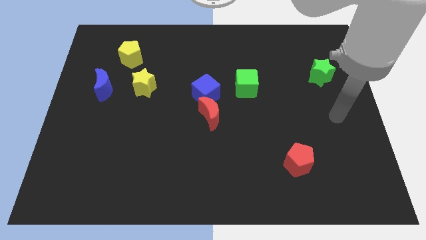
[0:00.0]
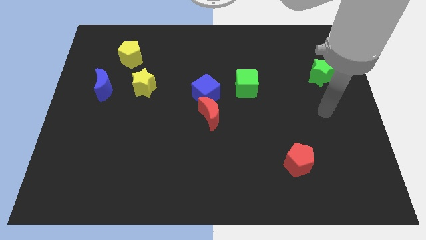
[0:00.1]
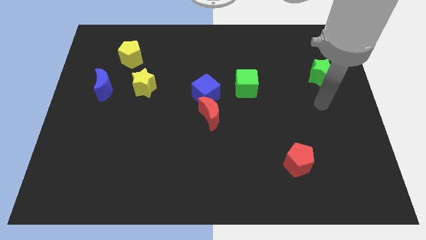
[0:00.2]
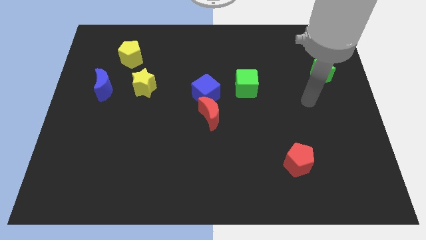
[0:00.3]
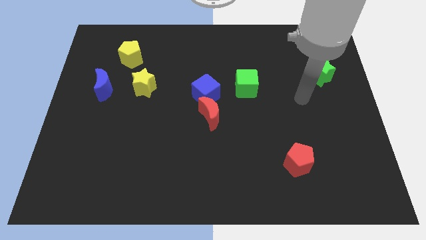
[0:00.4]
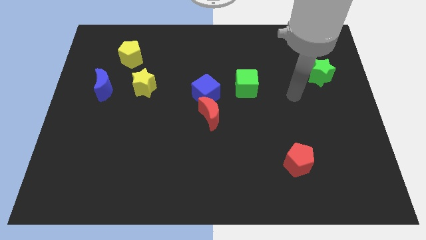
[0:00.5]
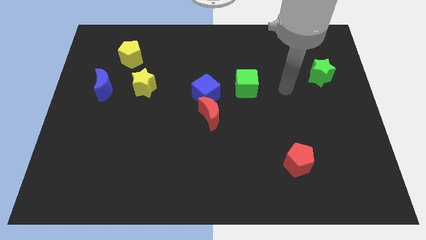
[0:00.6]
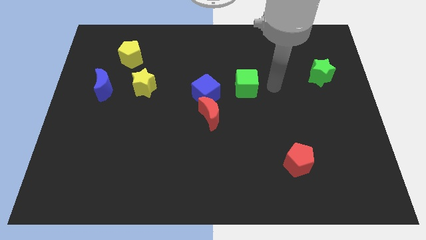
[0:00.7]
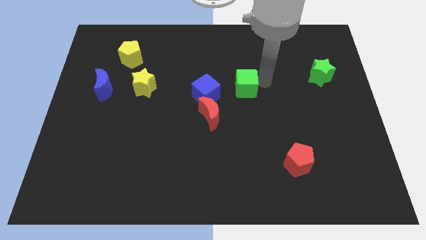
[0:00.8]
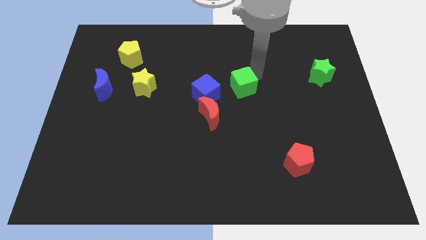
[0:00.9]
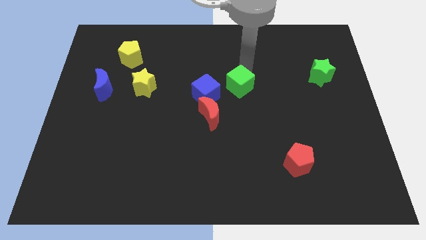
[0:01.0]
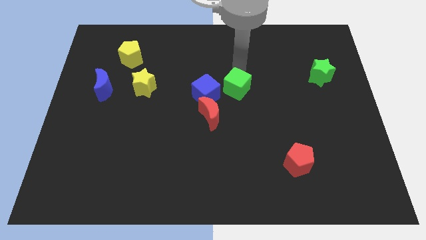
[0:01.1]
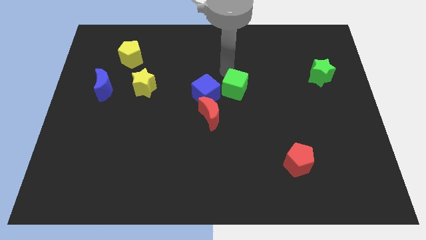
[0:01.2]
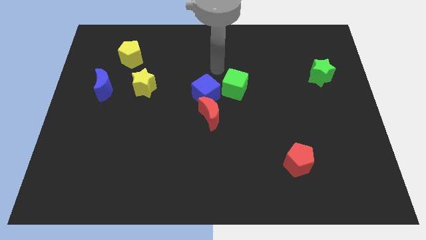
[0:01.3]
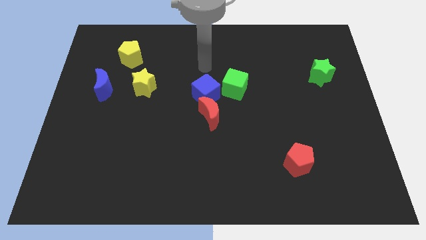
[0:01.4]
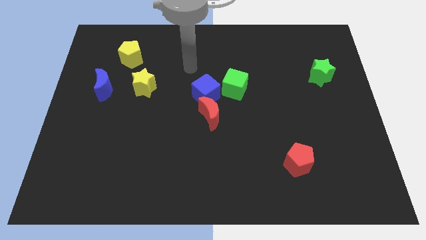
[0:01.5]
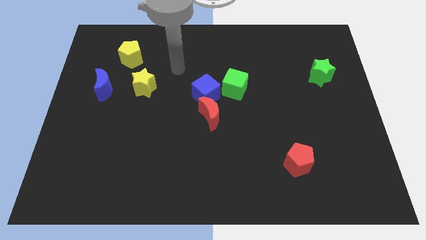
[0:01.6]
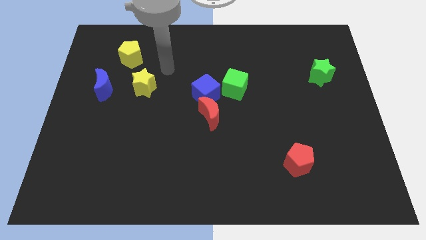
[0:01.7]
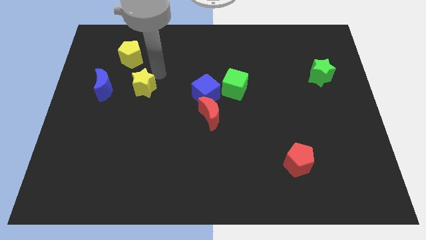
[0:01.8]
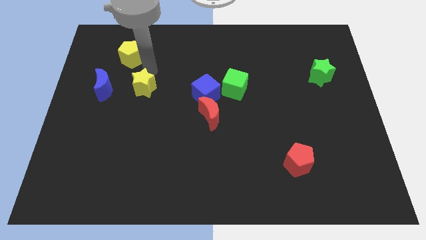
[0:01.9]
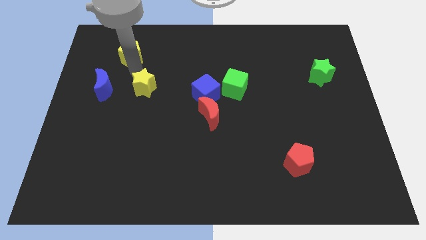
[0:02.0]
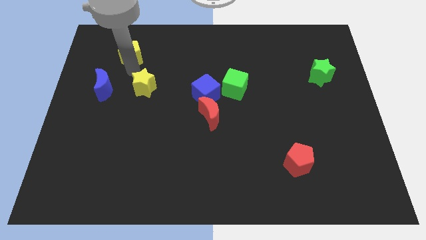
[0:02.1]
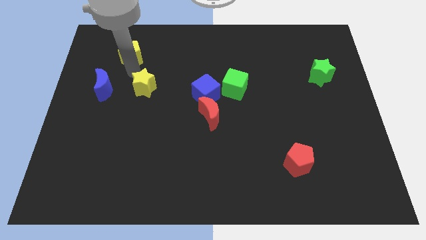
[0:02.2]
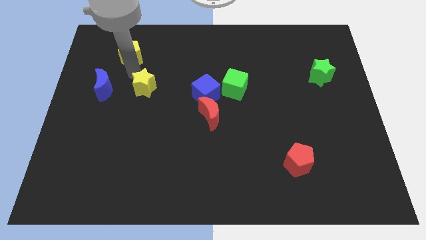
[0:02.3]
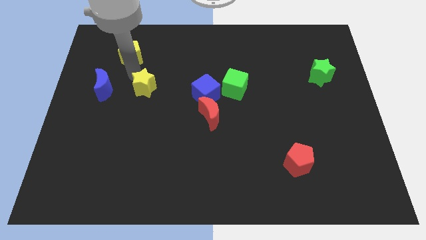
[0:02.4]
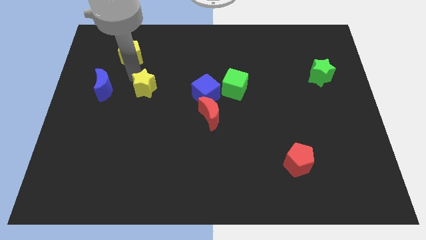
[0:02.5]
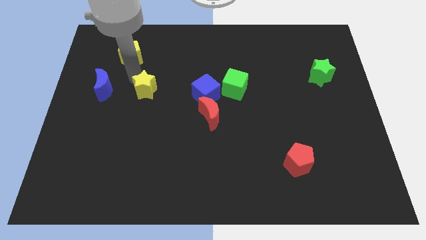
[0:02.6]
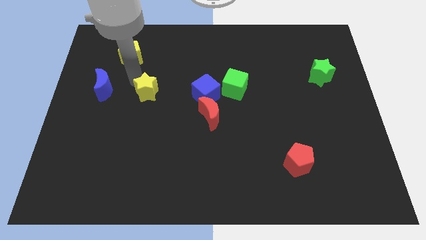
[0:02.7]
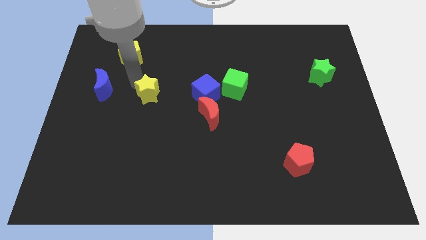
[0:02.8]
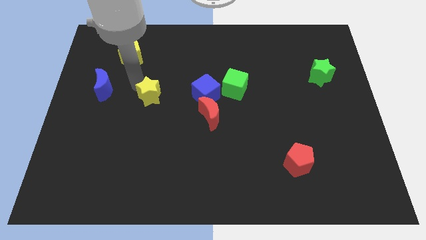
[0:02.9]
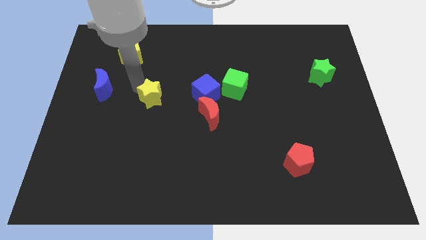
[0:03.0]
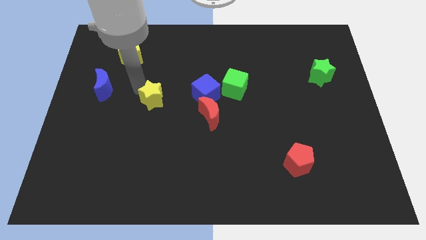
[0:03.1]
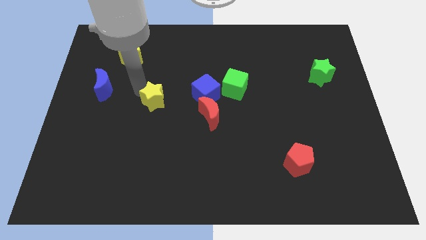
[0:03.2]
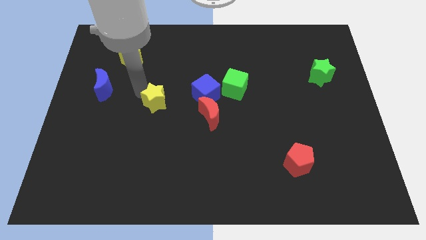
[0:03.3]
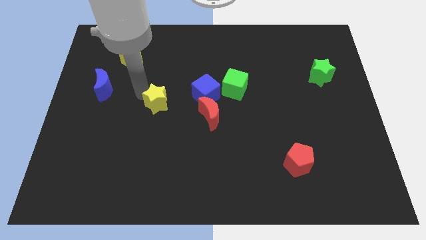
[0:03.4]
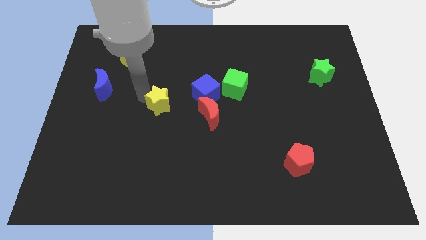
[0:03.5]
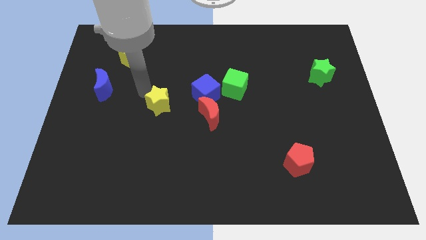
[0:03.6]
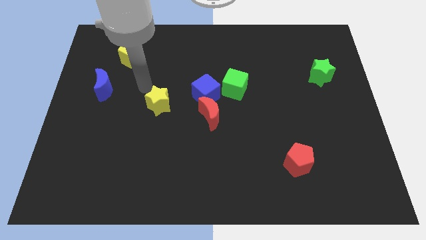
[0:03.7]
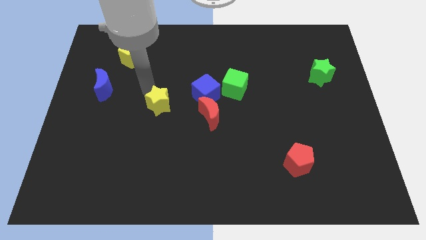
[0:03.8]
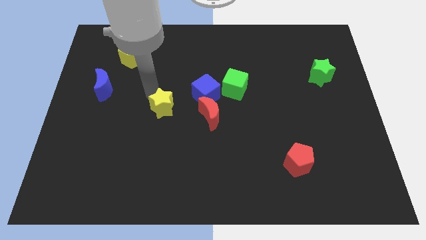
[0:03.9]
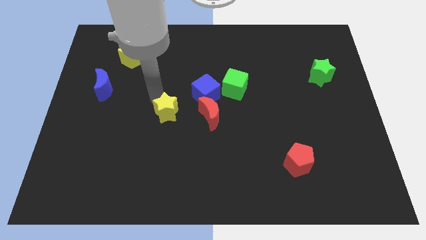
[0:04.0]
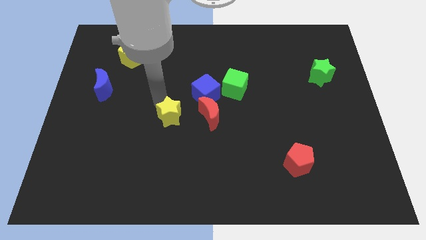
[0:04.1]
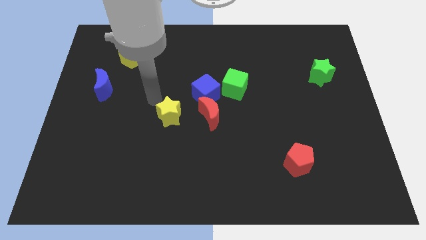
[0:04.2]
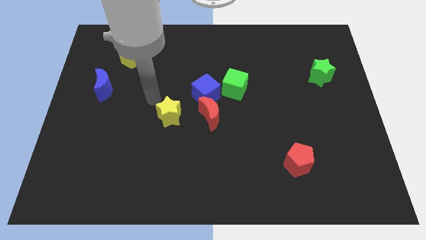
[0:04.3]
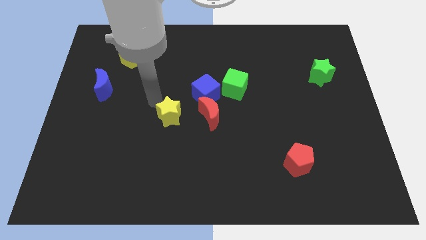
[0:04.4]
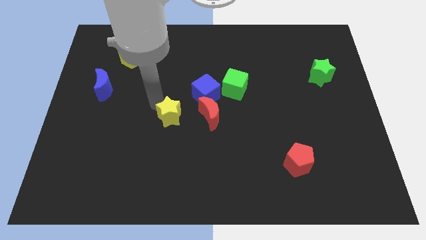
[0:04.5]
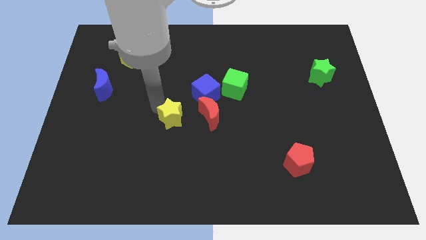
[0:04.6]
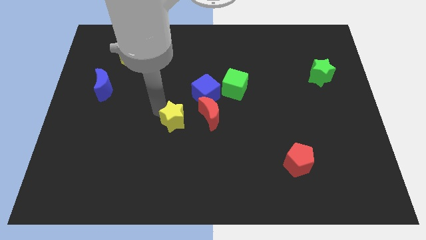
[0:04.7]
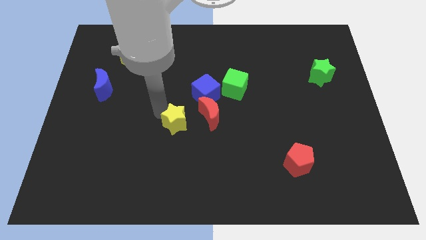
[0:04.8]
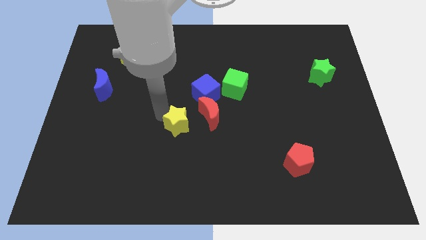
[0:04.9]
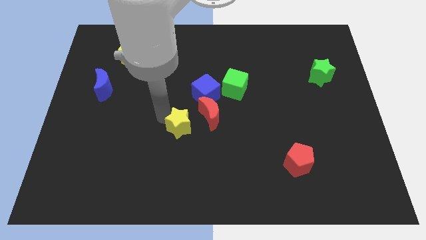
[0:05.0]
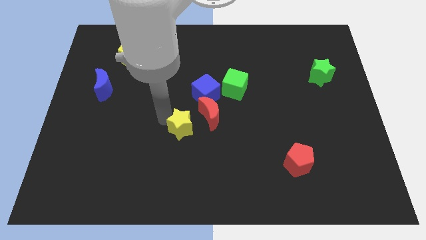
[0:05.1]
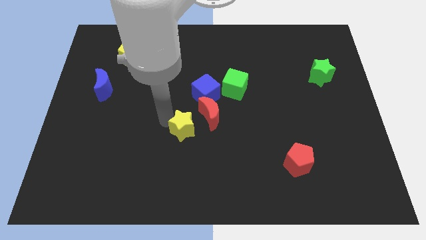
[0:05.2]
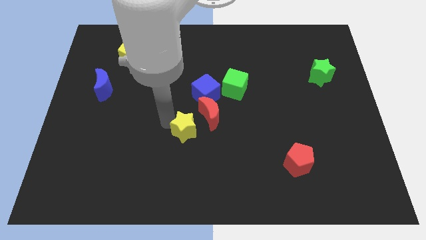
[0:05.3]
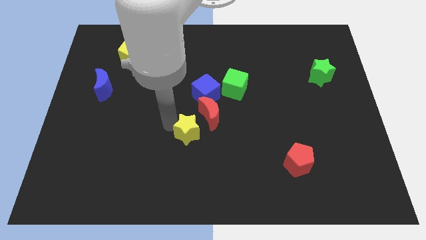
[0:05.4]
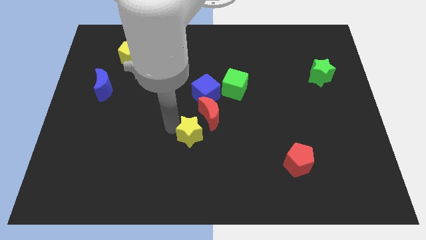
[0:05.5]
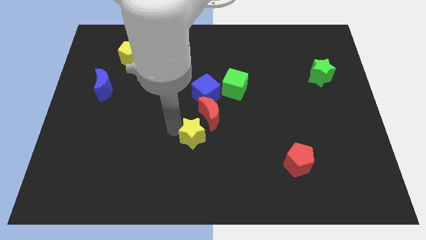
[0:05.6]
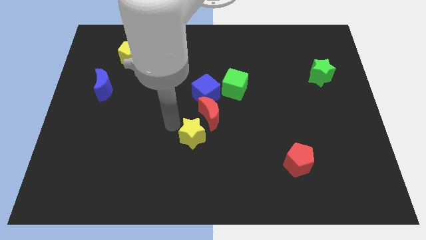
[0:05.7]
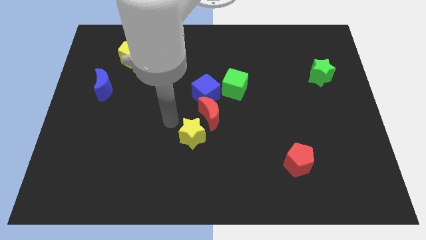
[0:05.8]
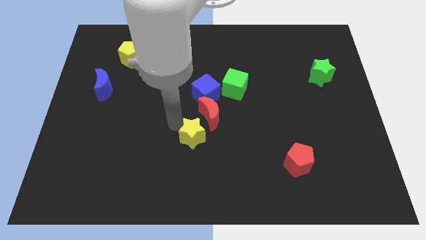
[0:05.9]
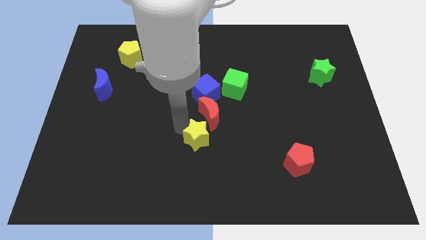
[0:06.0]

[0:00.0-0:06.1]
slide the yellow star down and then to the right

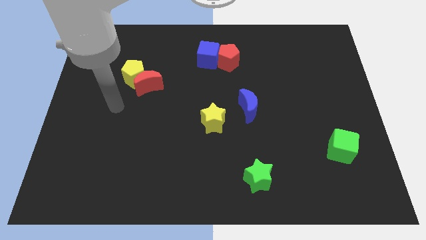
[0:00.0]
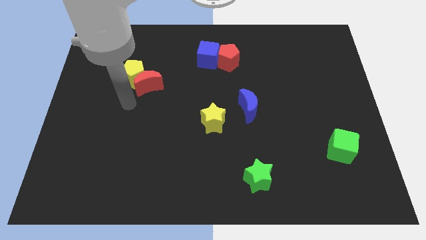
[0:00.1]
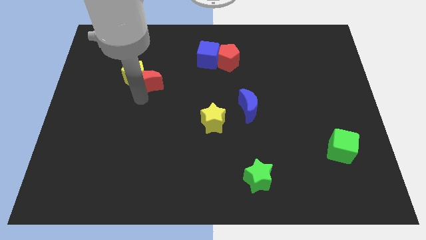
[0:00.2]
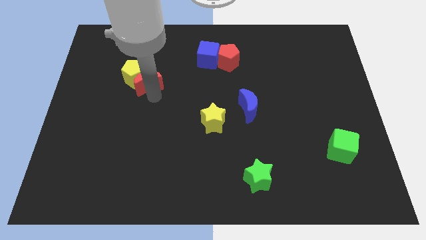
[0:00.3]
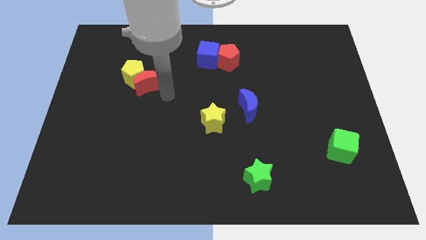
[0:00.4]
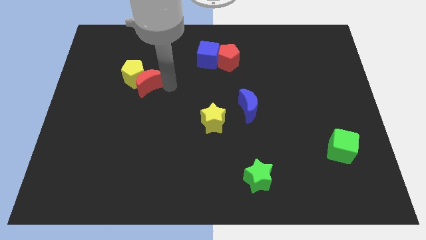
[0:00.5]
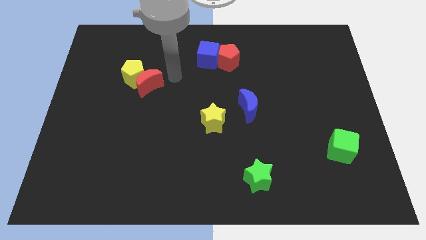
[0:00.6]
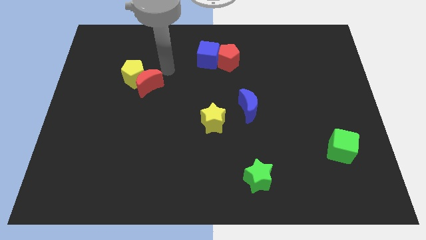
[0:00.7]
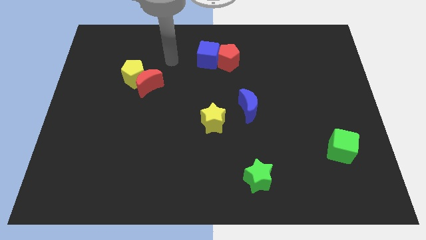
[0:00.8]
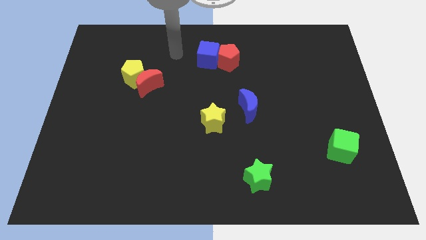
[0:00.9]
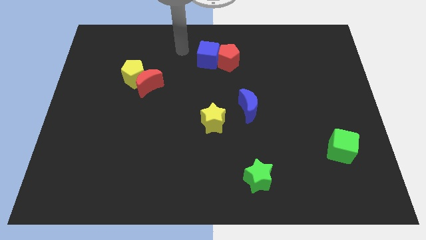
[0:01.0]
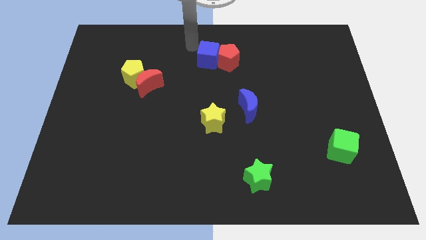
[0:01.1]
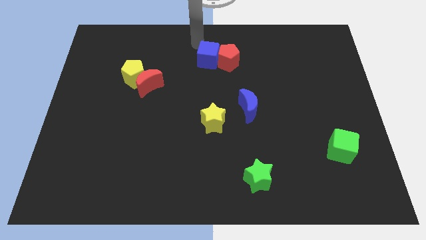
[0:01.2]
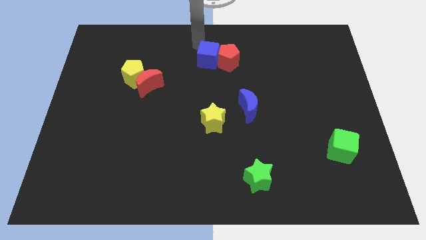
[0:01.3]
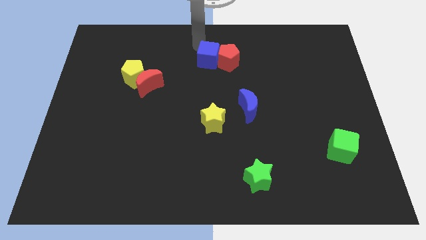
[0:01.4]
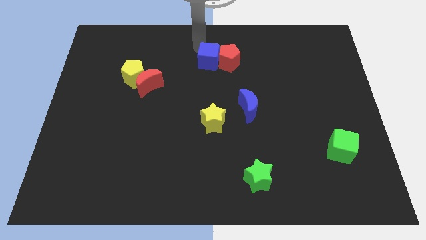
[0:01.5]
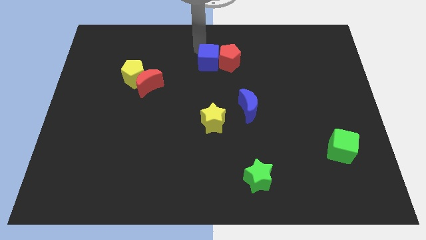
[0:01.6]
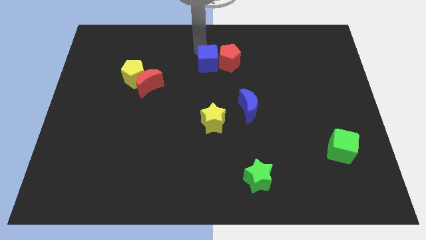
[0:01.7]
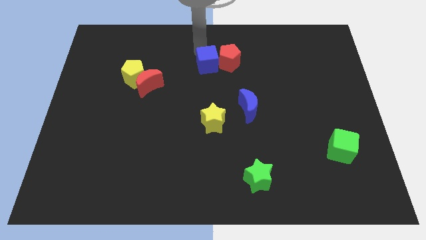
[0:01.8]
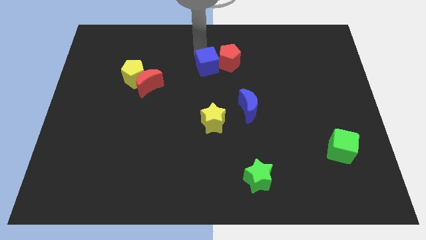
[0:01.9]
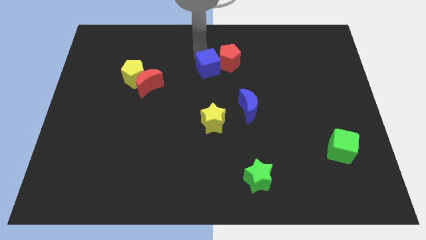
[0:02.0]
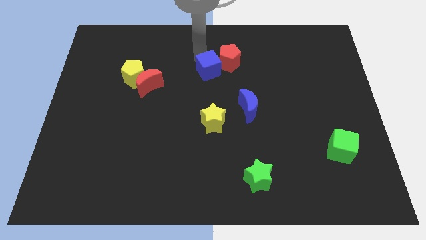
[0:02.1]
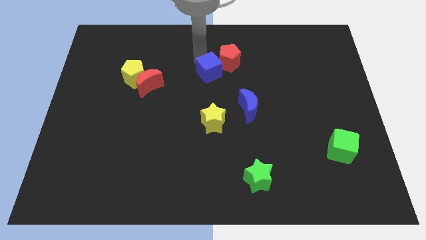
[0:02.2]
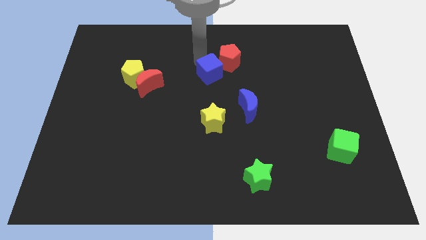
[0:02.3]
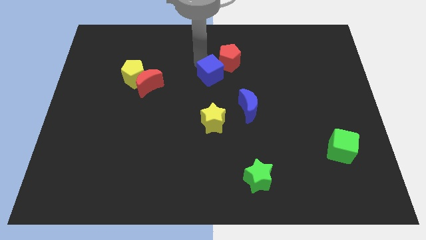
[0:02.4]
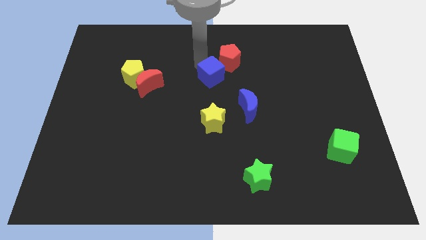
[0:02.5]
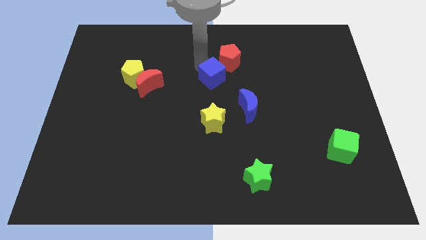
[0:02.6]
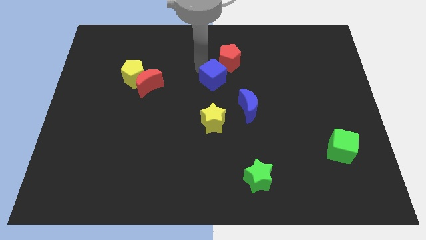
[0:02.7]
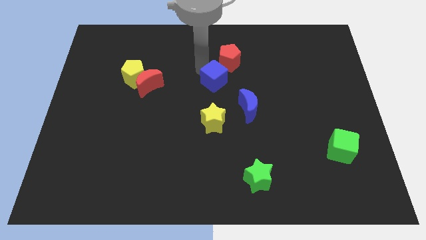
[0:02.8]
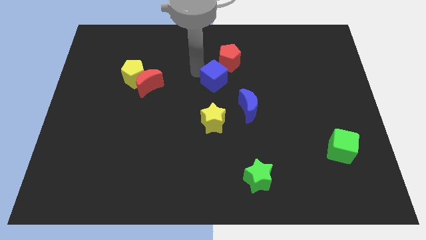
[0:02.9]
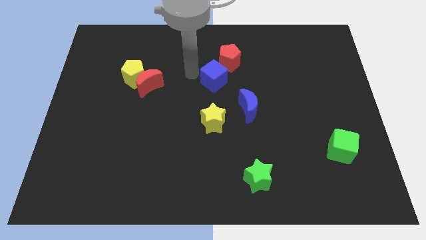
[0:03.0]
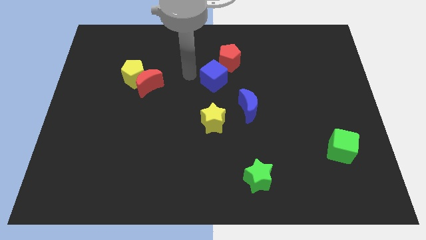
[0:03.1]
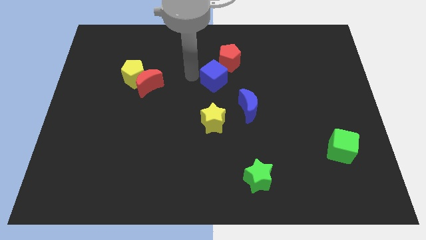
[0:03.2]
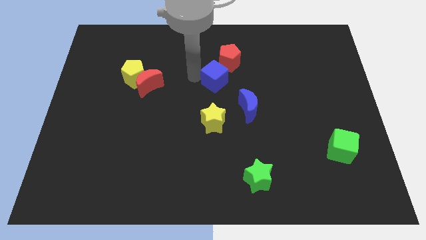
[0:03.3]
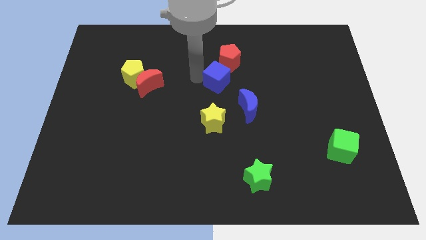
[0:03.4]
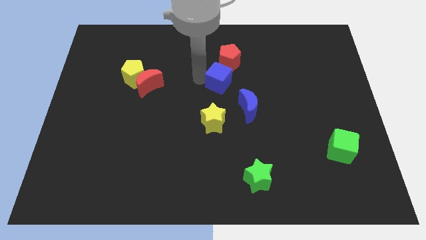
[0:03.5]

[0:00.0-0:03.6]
slightly move the blue cube down and then to the right
